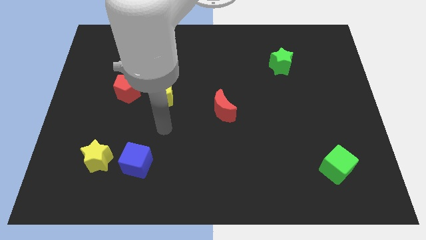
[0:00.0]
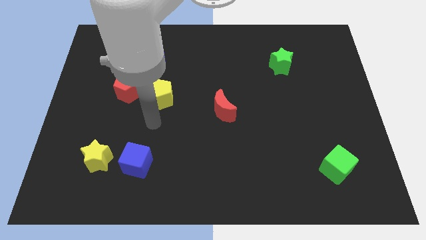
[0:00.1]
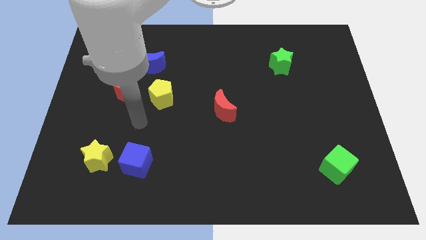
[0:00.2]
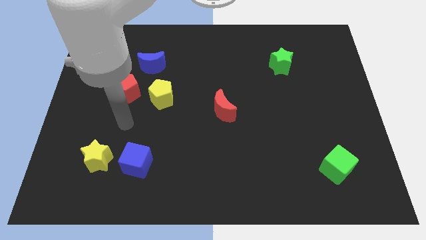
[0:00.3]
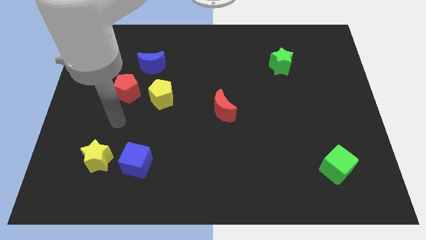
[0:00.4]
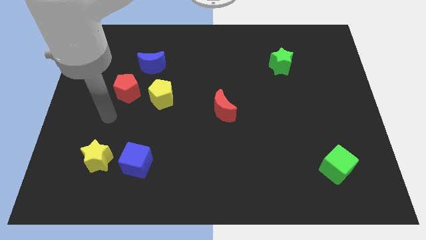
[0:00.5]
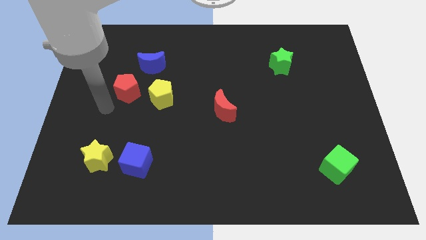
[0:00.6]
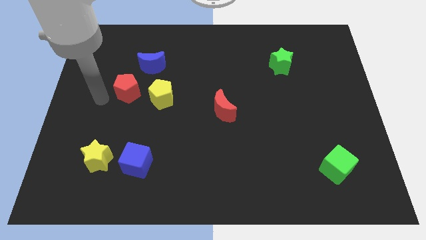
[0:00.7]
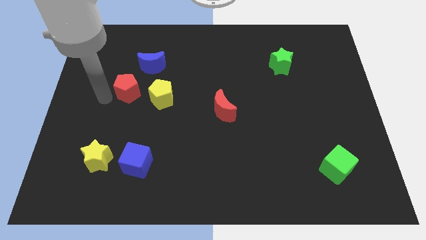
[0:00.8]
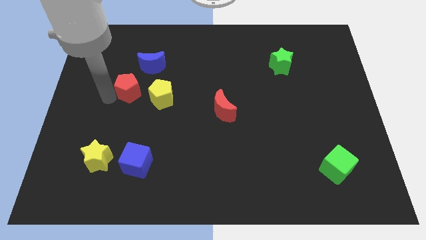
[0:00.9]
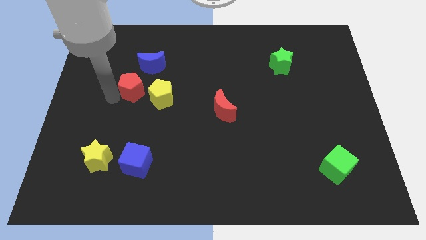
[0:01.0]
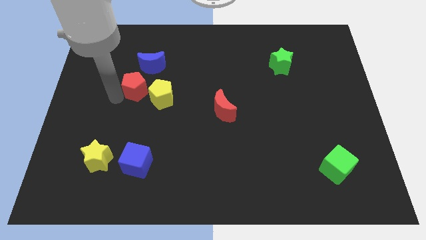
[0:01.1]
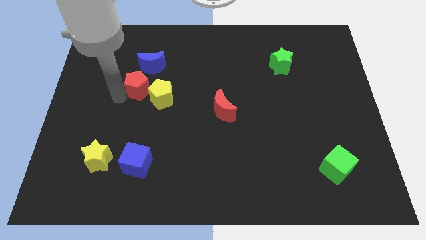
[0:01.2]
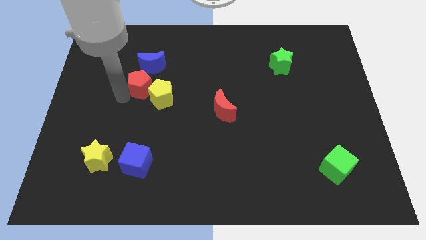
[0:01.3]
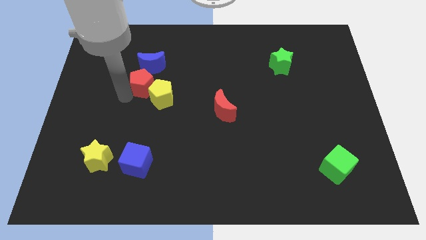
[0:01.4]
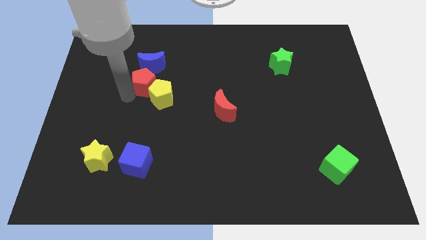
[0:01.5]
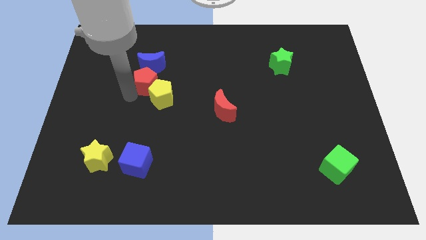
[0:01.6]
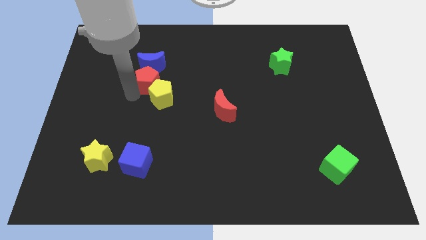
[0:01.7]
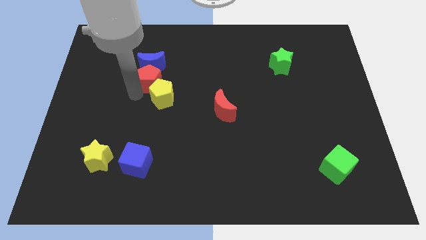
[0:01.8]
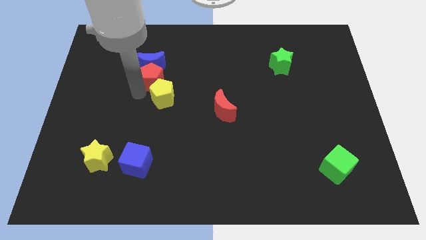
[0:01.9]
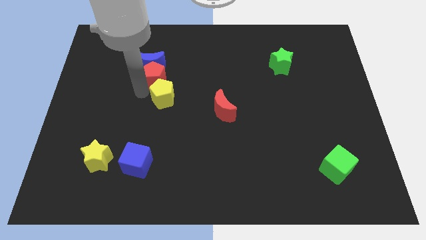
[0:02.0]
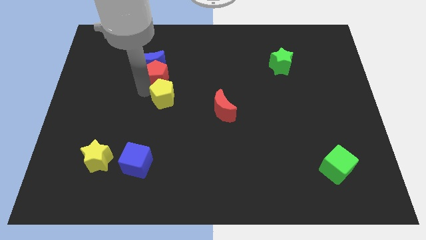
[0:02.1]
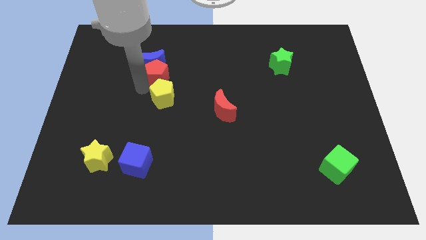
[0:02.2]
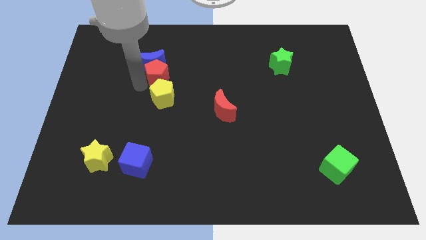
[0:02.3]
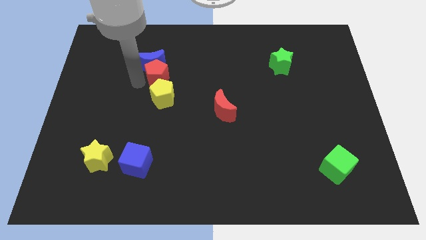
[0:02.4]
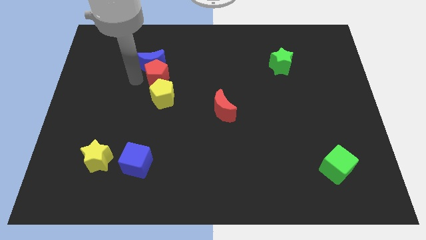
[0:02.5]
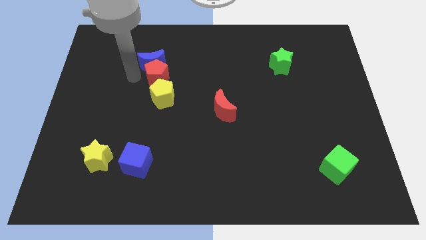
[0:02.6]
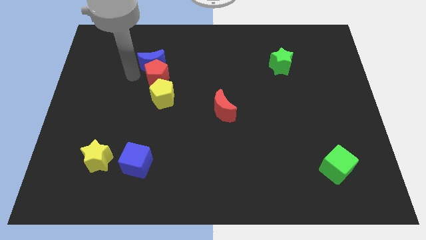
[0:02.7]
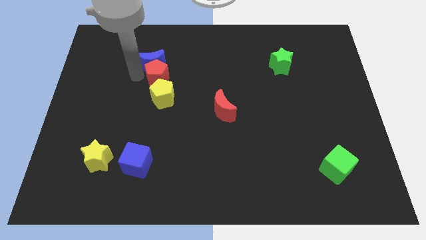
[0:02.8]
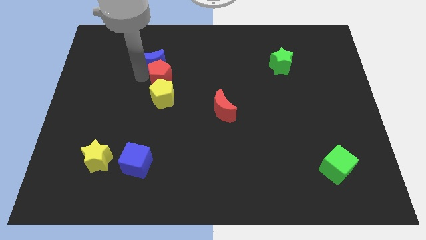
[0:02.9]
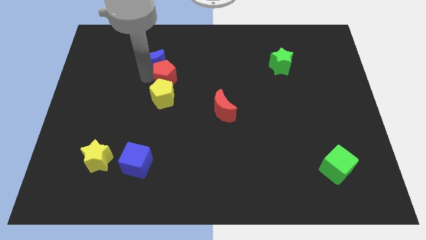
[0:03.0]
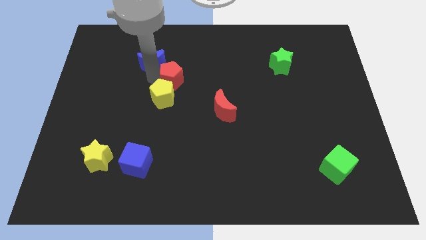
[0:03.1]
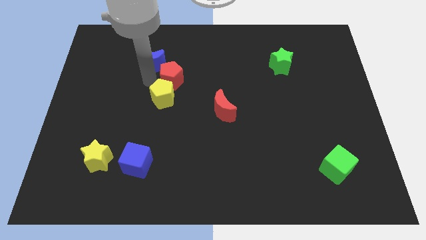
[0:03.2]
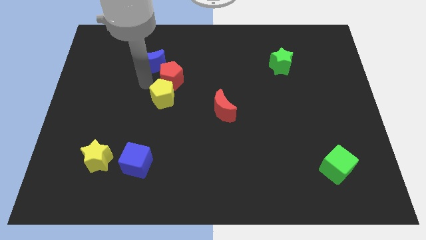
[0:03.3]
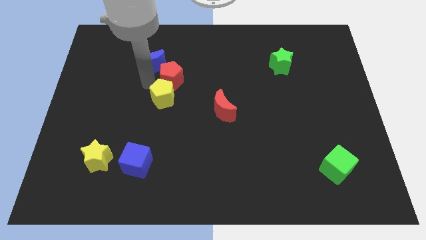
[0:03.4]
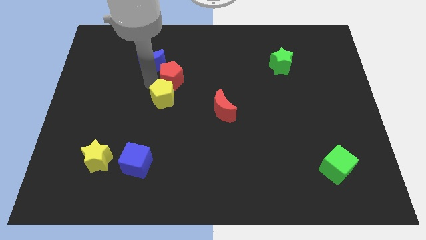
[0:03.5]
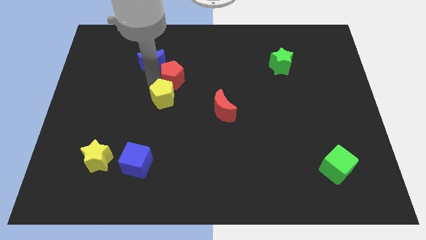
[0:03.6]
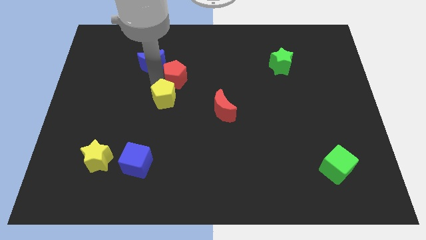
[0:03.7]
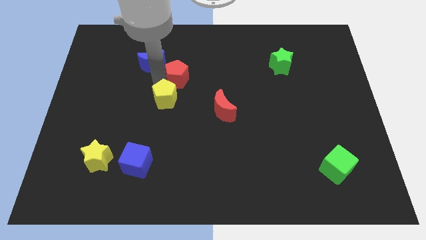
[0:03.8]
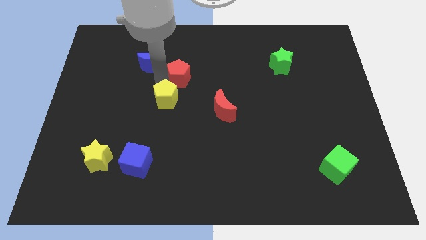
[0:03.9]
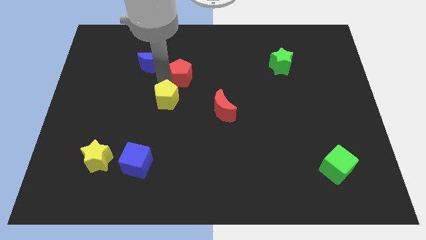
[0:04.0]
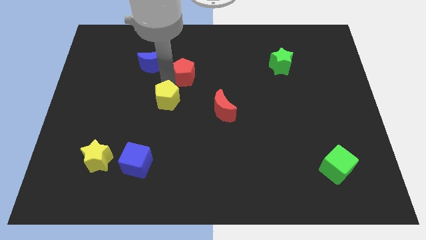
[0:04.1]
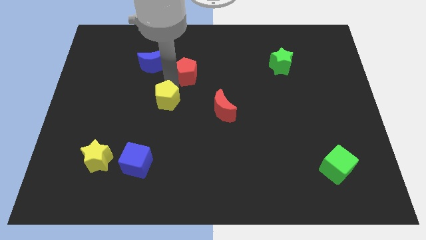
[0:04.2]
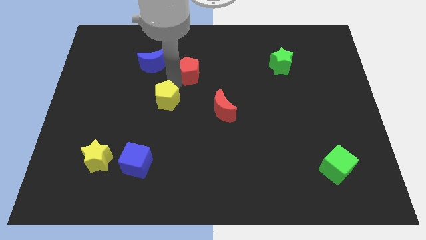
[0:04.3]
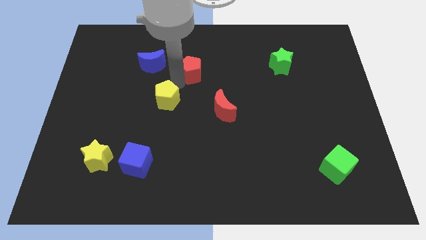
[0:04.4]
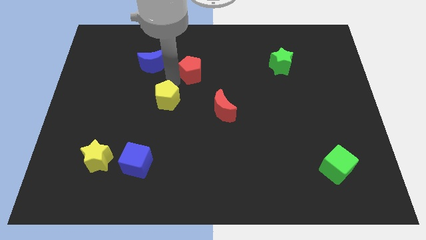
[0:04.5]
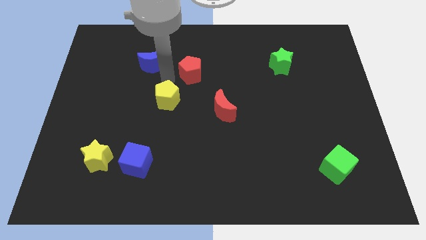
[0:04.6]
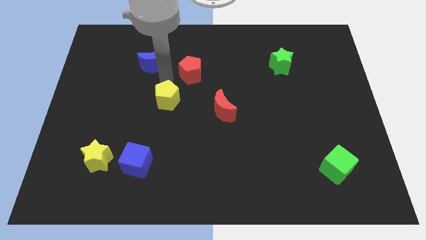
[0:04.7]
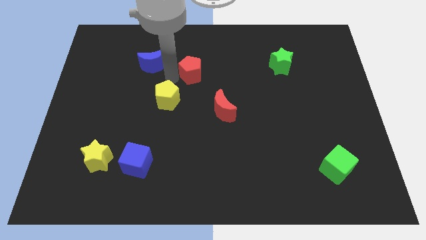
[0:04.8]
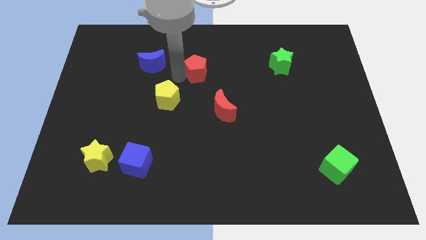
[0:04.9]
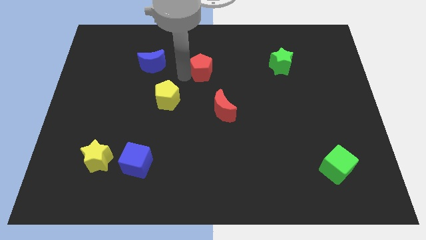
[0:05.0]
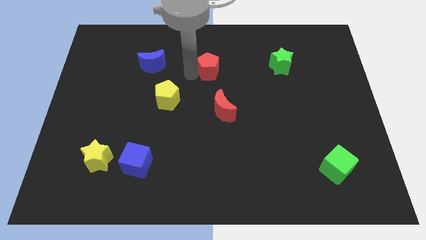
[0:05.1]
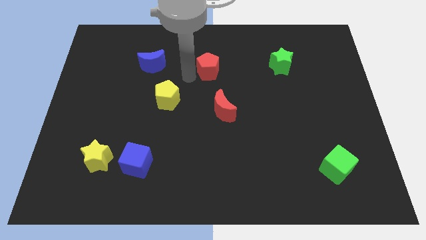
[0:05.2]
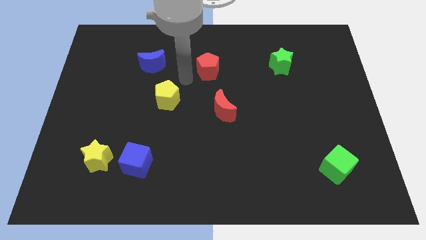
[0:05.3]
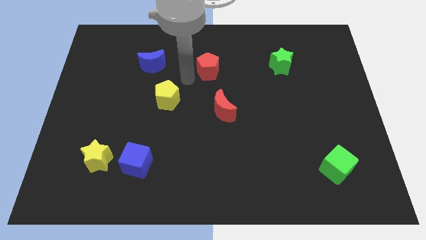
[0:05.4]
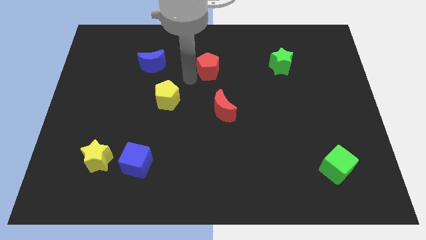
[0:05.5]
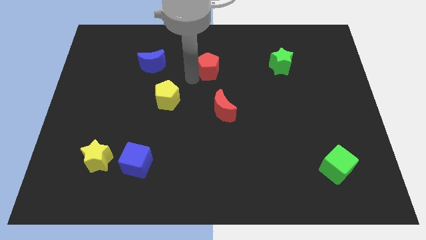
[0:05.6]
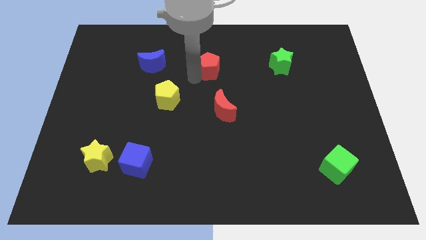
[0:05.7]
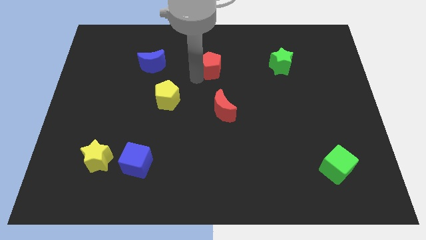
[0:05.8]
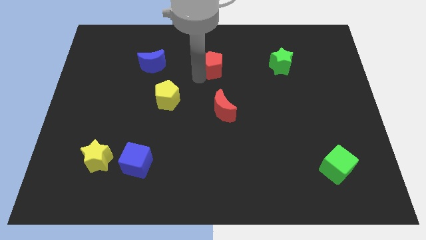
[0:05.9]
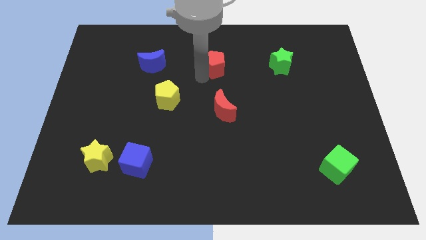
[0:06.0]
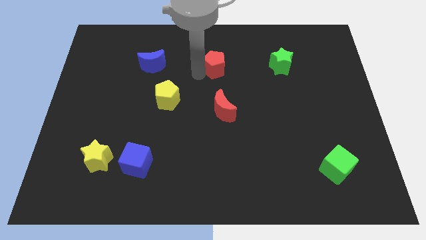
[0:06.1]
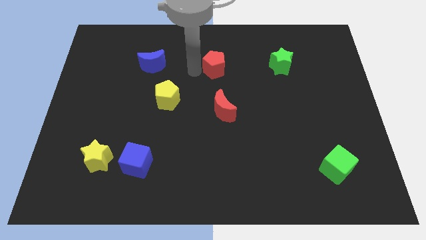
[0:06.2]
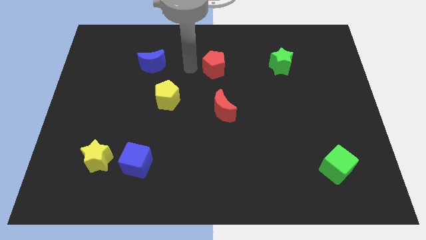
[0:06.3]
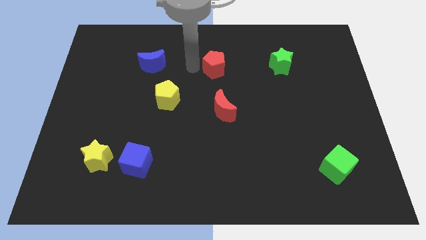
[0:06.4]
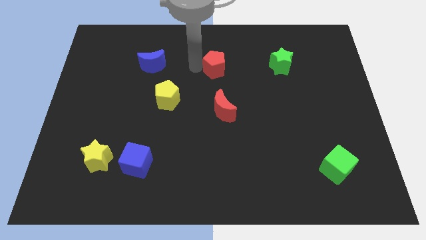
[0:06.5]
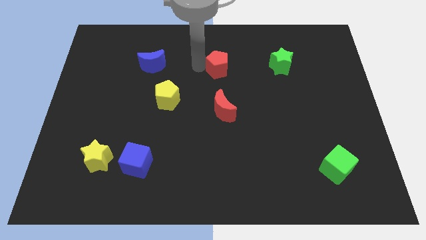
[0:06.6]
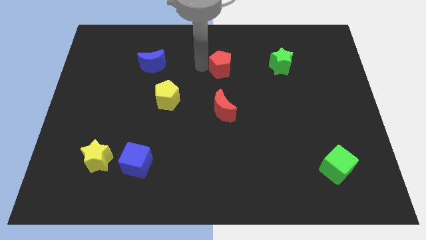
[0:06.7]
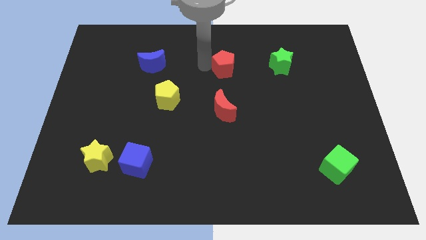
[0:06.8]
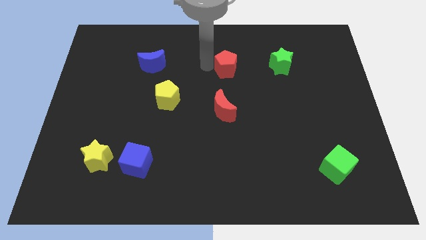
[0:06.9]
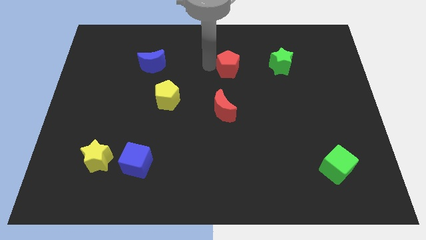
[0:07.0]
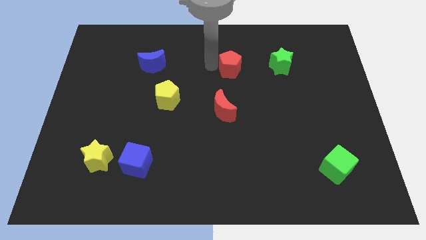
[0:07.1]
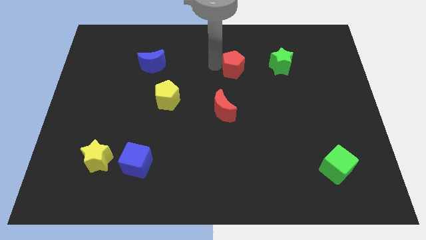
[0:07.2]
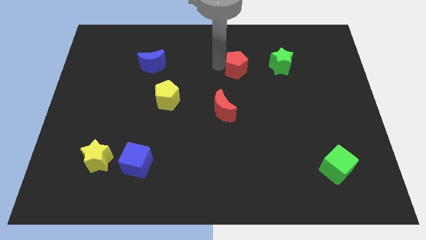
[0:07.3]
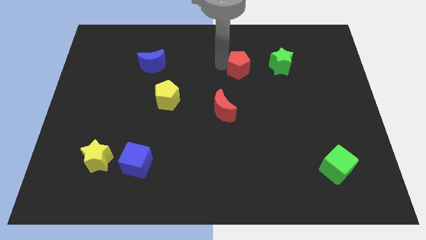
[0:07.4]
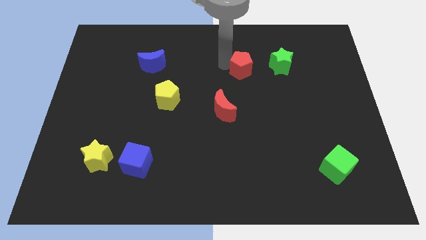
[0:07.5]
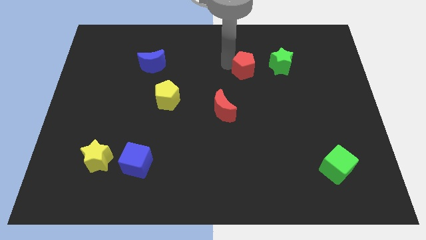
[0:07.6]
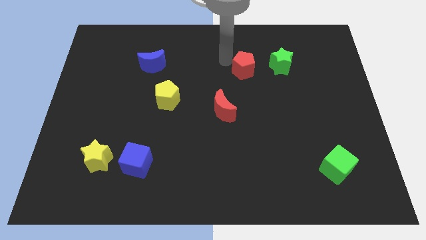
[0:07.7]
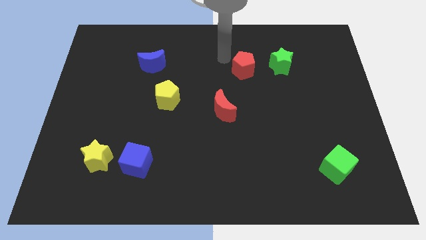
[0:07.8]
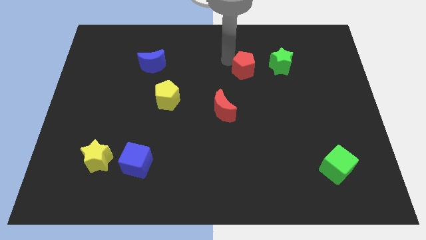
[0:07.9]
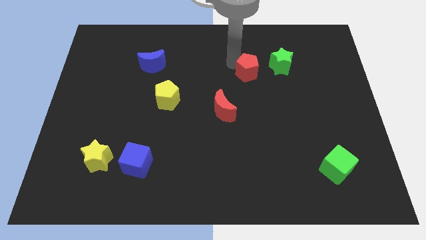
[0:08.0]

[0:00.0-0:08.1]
put the red pentagon to the bottom left side of the green star
